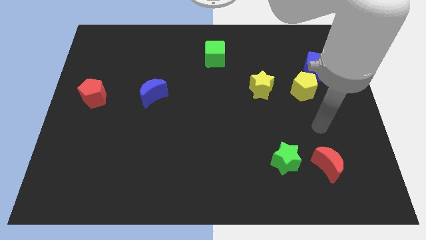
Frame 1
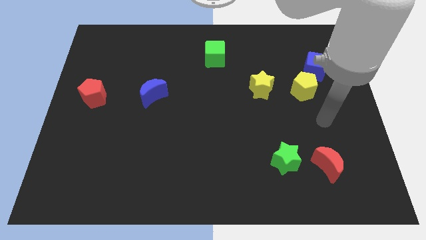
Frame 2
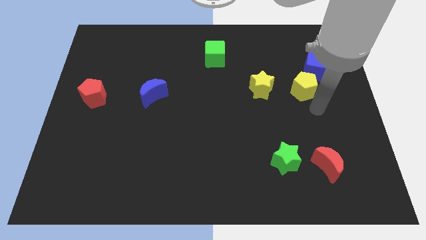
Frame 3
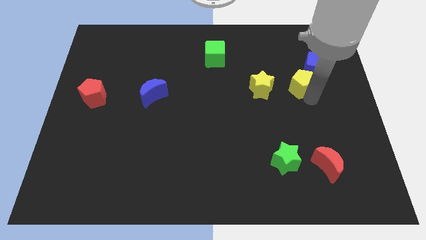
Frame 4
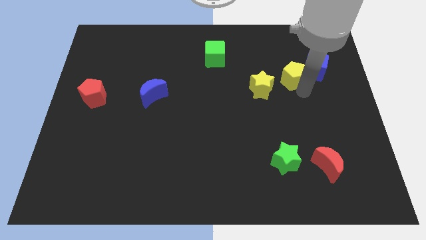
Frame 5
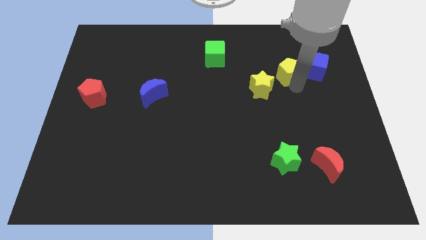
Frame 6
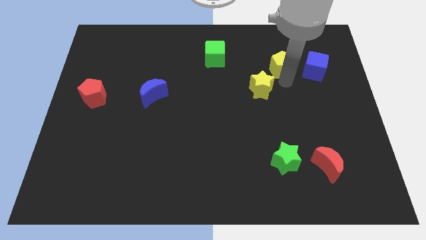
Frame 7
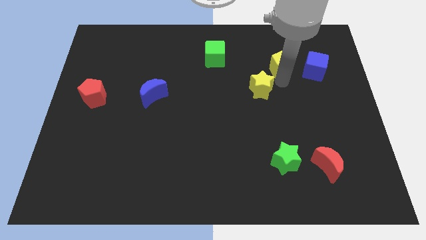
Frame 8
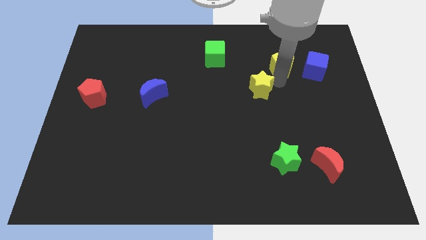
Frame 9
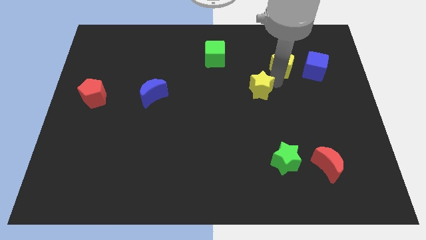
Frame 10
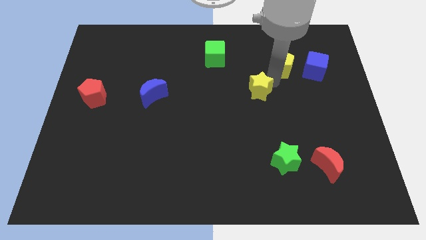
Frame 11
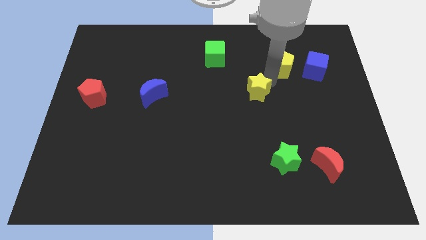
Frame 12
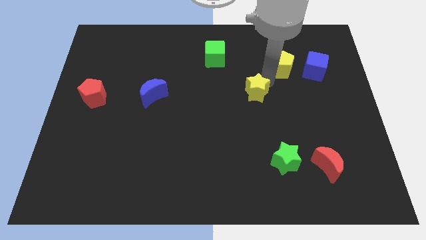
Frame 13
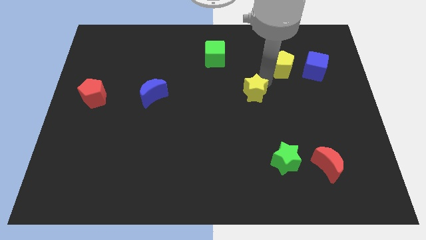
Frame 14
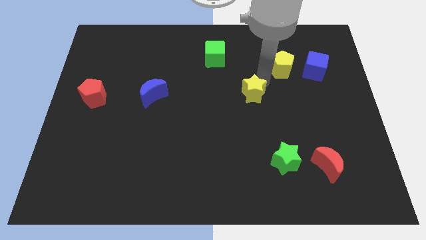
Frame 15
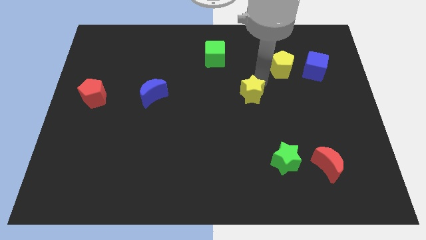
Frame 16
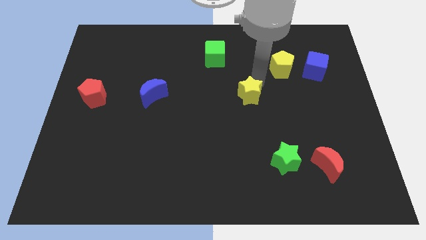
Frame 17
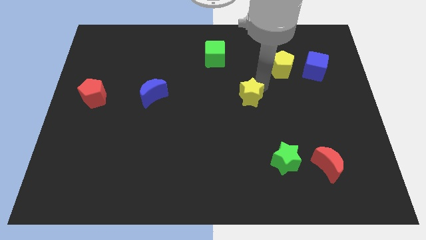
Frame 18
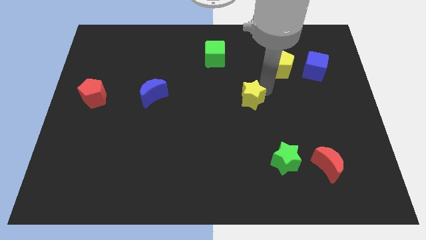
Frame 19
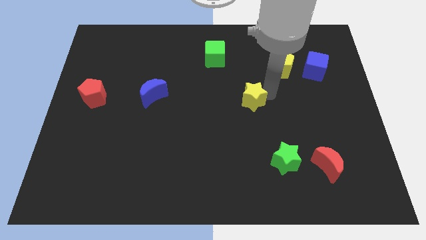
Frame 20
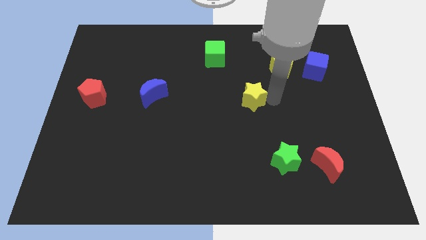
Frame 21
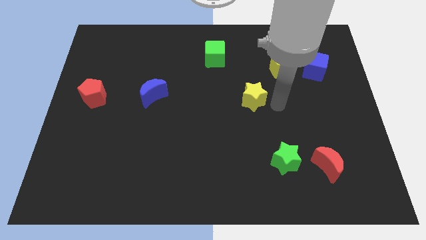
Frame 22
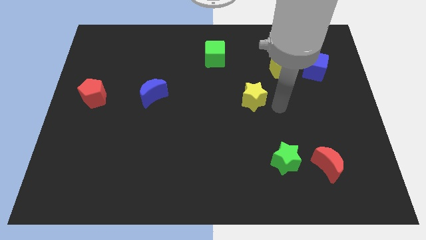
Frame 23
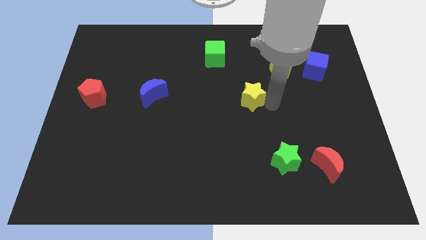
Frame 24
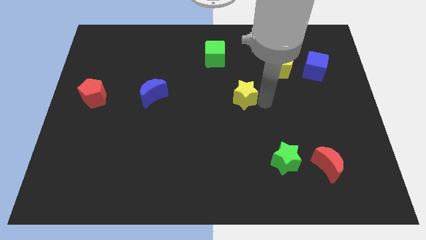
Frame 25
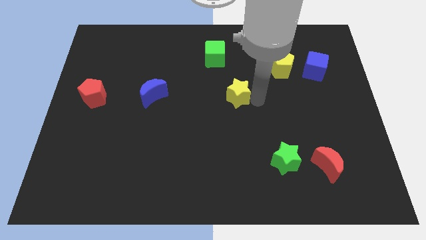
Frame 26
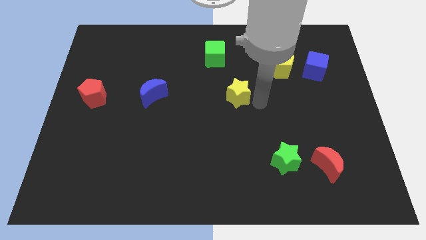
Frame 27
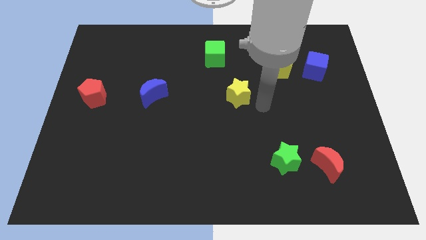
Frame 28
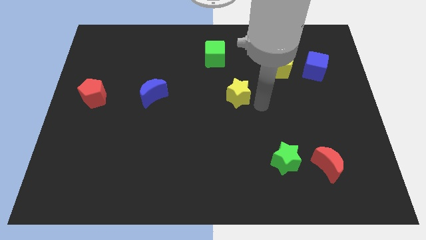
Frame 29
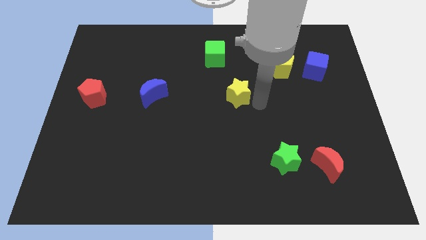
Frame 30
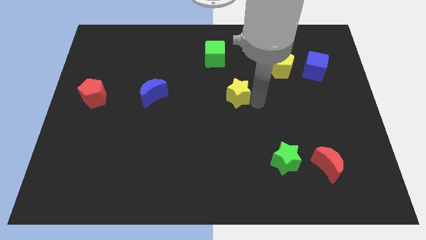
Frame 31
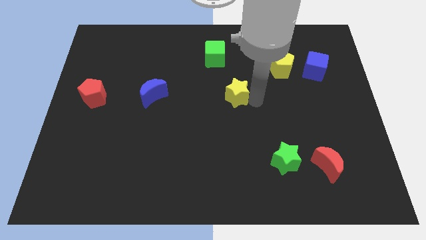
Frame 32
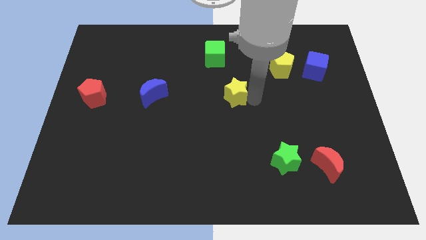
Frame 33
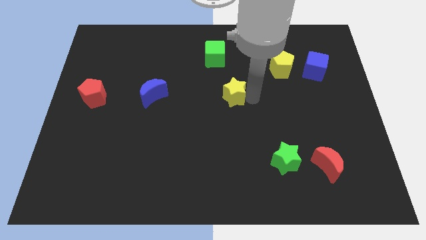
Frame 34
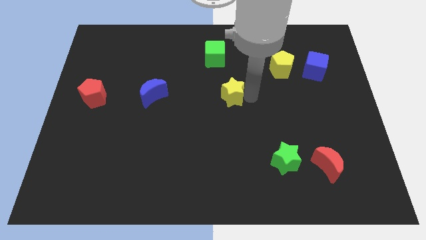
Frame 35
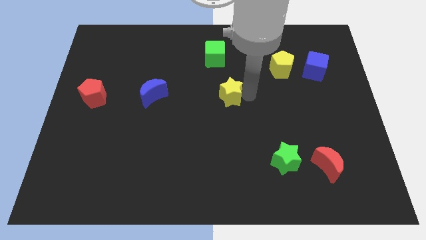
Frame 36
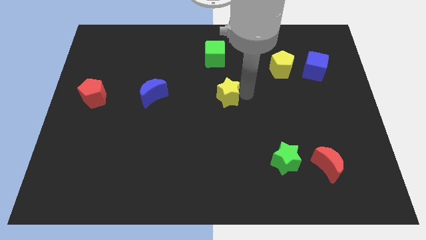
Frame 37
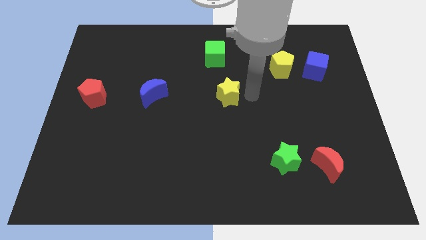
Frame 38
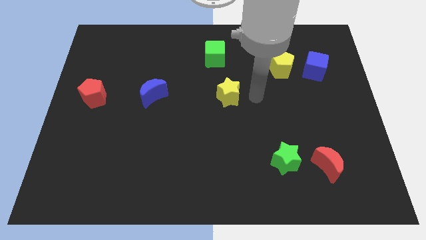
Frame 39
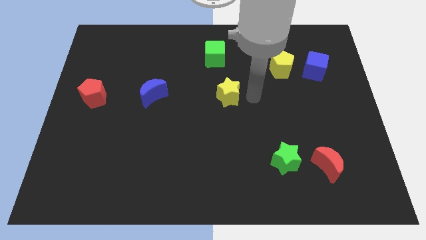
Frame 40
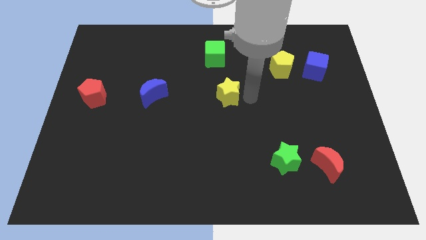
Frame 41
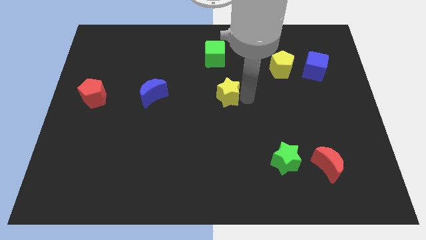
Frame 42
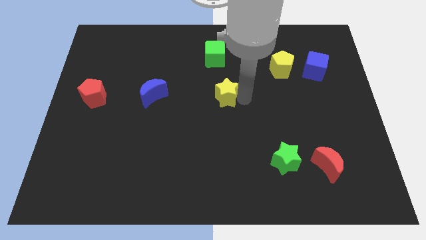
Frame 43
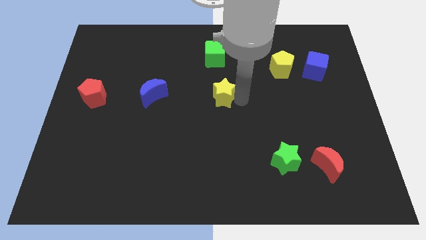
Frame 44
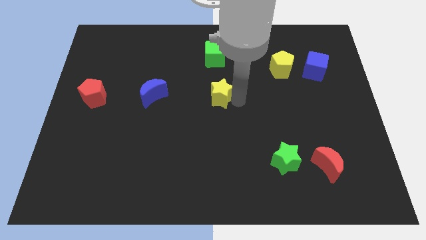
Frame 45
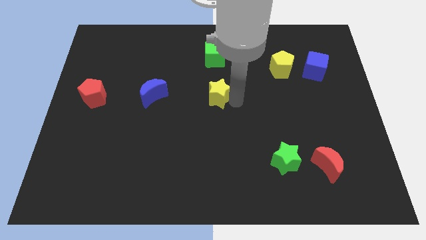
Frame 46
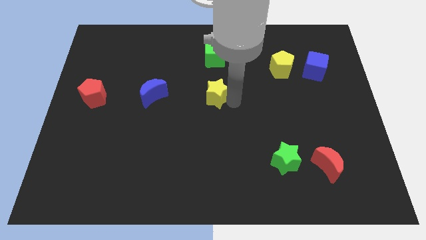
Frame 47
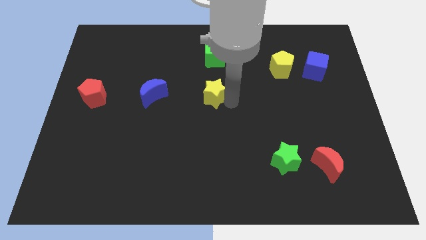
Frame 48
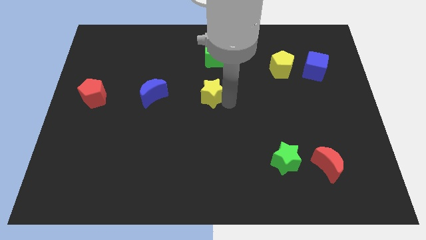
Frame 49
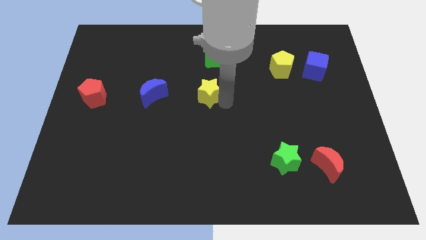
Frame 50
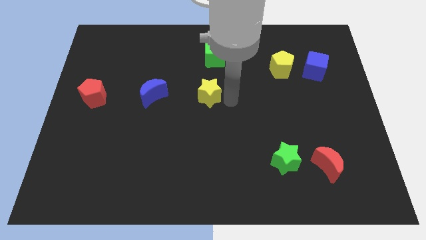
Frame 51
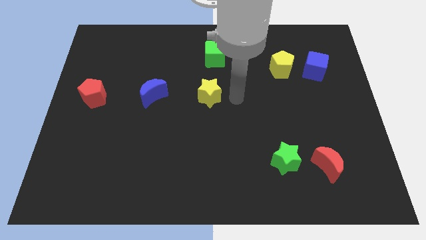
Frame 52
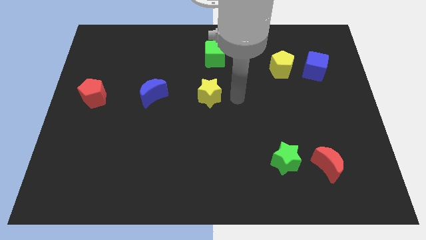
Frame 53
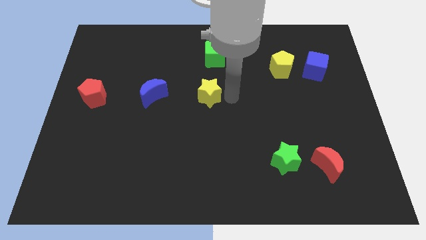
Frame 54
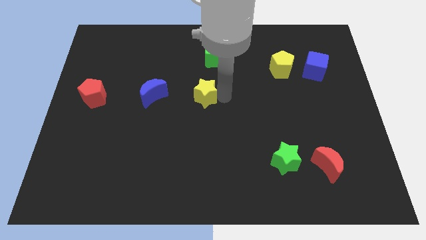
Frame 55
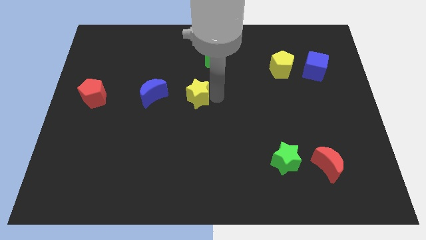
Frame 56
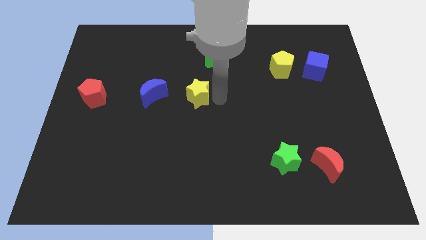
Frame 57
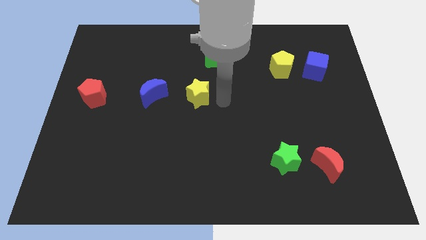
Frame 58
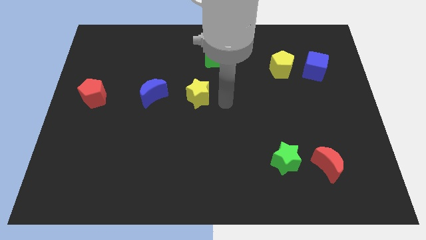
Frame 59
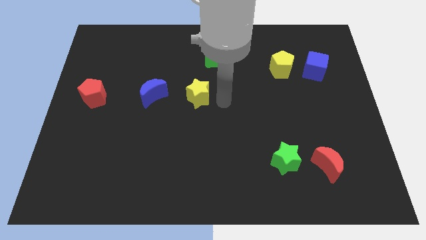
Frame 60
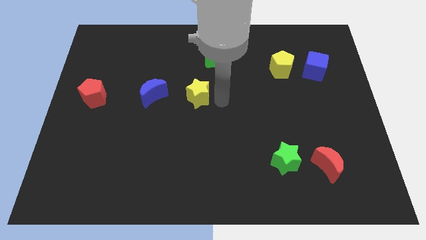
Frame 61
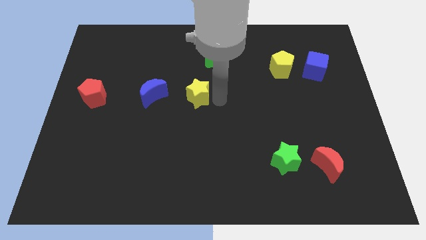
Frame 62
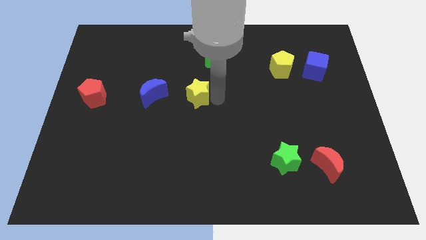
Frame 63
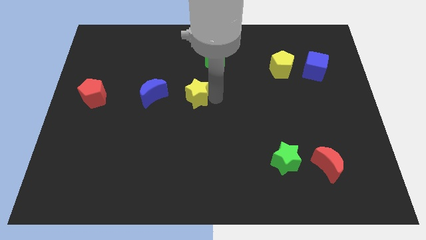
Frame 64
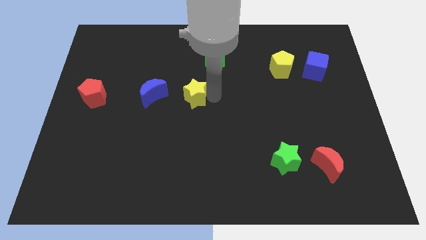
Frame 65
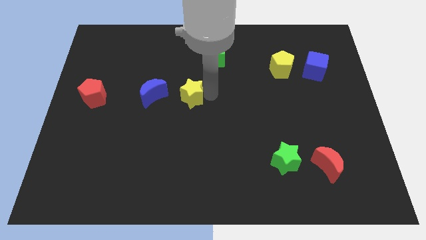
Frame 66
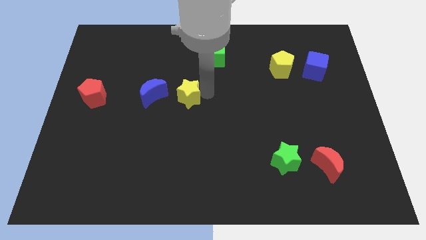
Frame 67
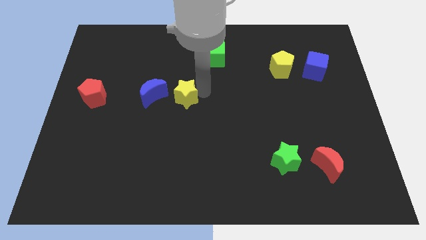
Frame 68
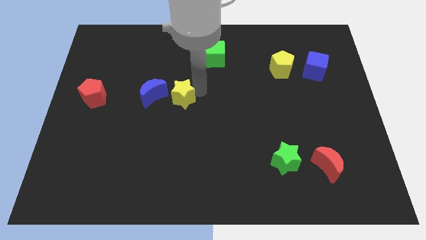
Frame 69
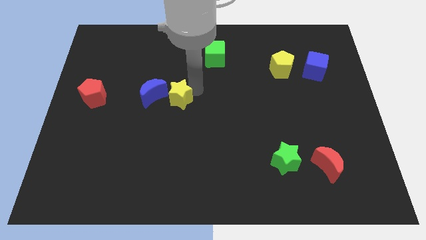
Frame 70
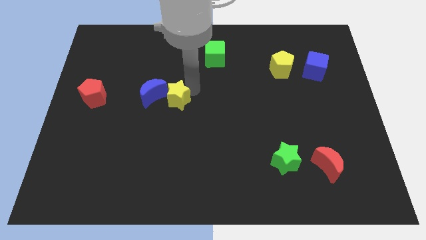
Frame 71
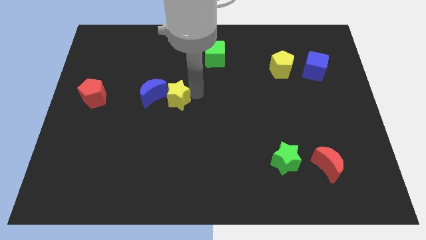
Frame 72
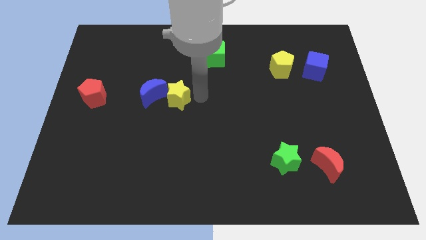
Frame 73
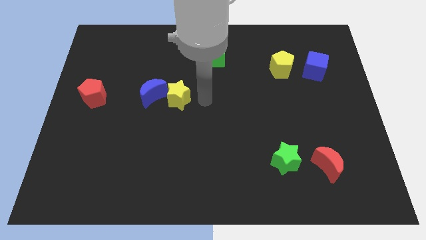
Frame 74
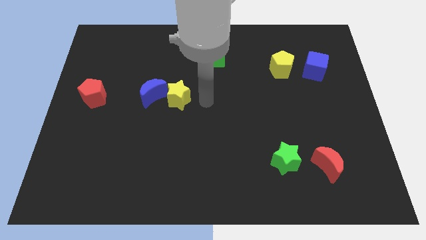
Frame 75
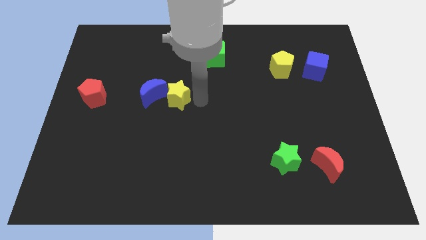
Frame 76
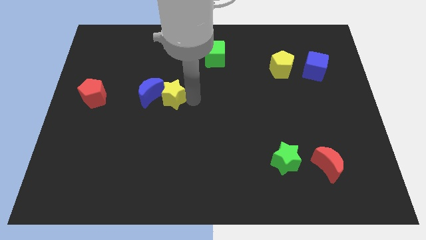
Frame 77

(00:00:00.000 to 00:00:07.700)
put the yellow star to the blue moon
